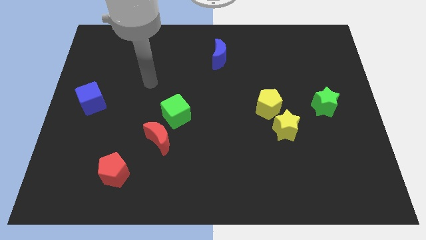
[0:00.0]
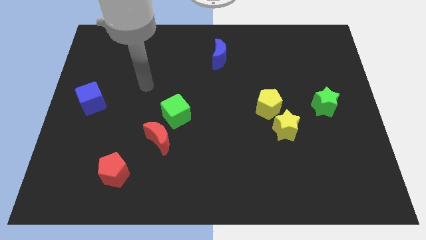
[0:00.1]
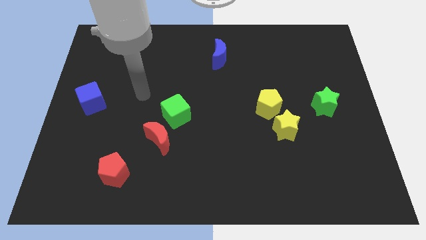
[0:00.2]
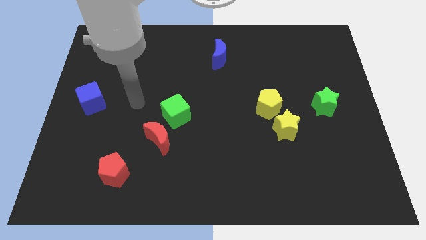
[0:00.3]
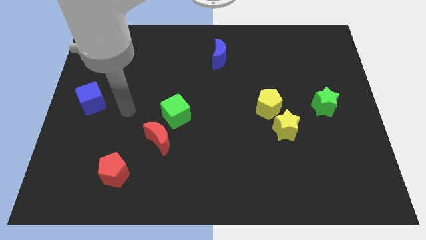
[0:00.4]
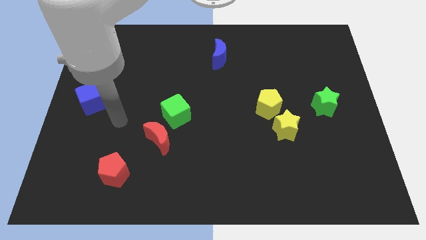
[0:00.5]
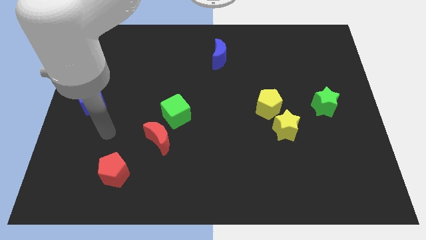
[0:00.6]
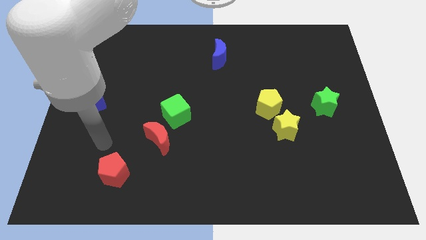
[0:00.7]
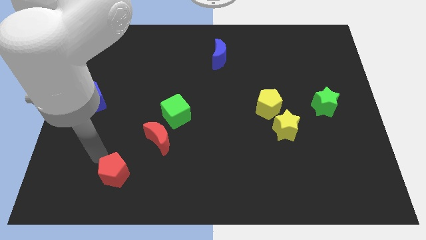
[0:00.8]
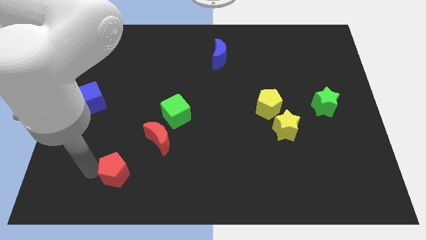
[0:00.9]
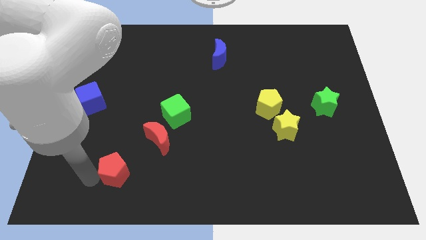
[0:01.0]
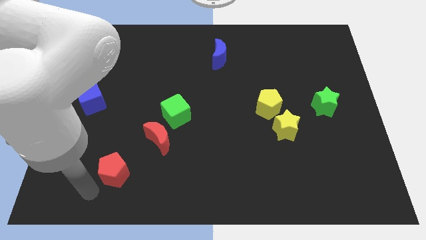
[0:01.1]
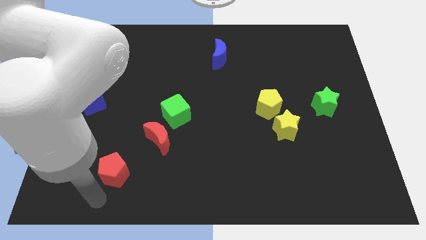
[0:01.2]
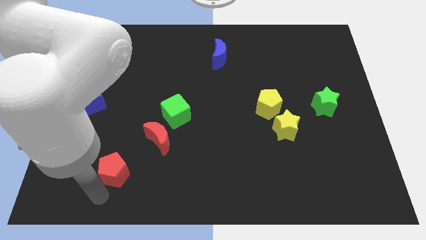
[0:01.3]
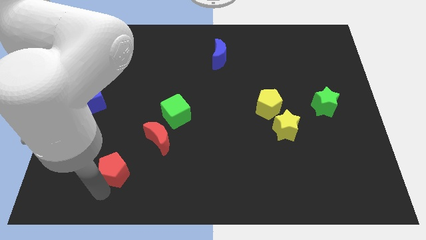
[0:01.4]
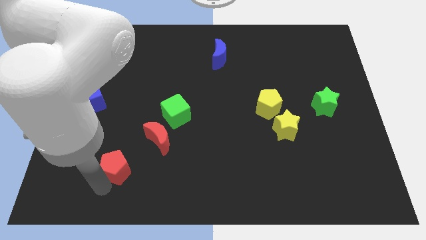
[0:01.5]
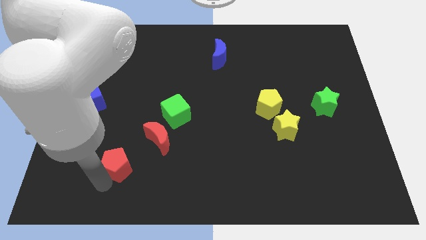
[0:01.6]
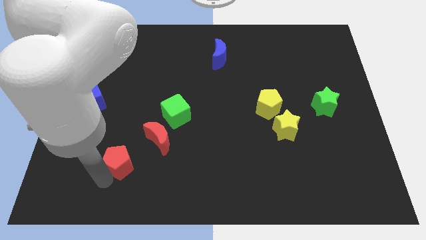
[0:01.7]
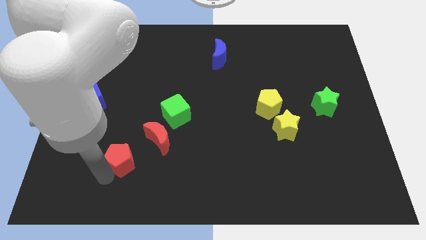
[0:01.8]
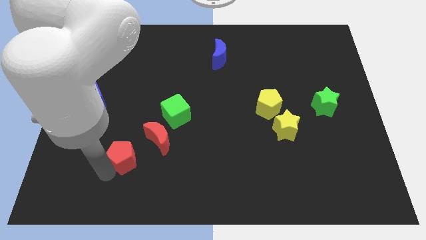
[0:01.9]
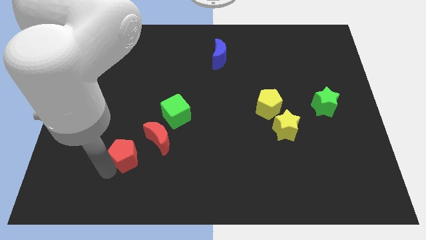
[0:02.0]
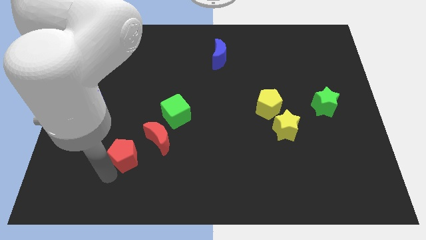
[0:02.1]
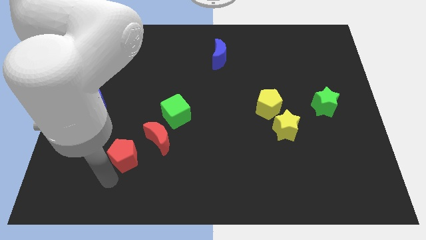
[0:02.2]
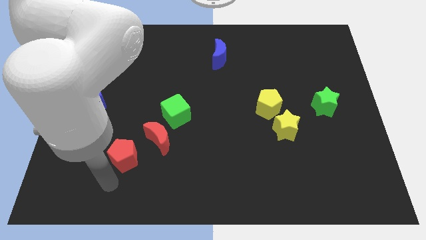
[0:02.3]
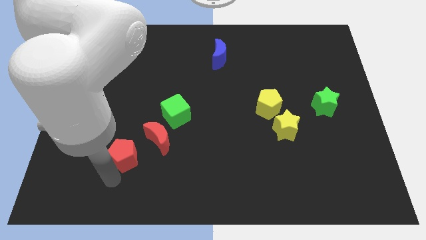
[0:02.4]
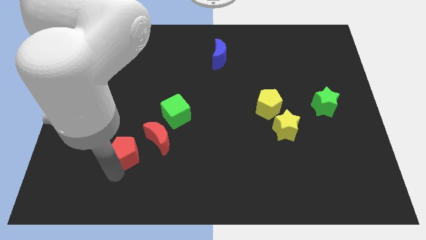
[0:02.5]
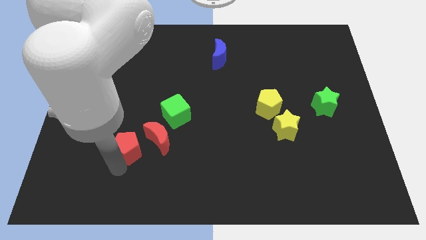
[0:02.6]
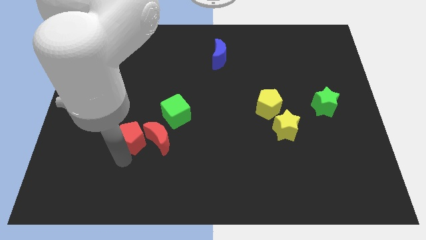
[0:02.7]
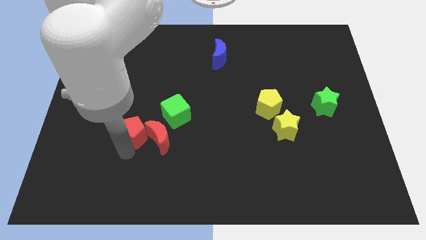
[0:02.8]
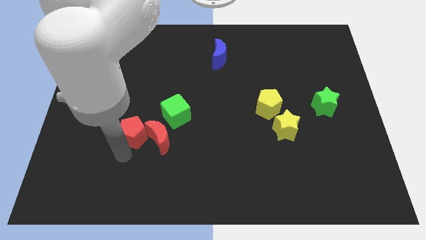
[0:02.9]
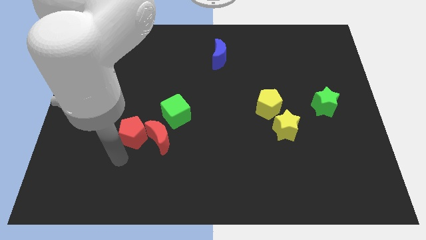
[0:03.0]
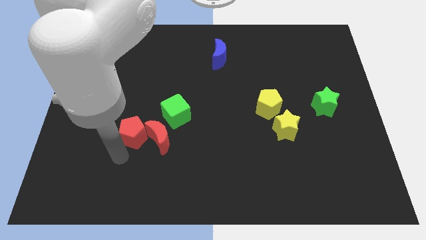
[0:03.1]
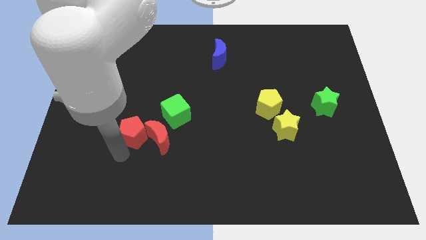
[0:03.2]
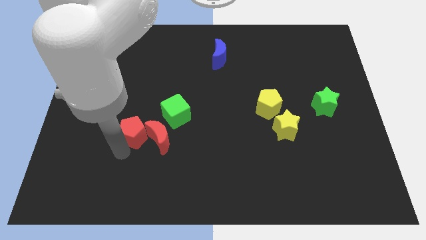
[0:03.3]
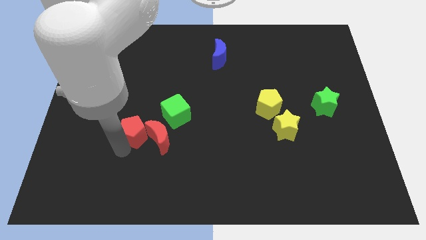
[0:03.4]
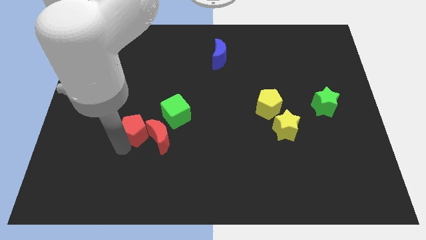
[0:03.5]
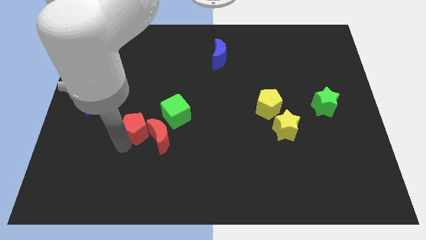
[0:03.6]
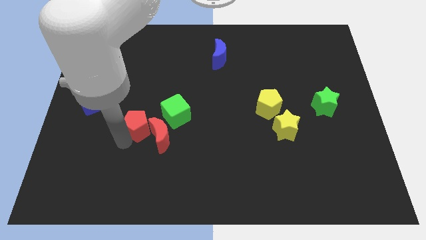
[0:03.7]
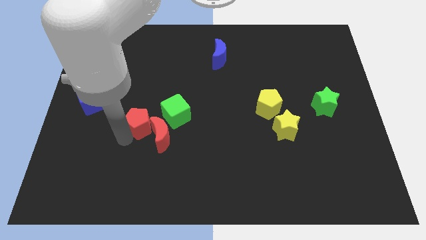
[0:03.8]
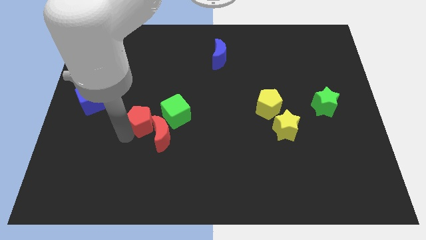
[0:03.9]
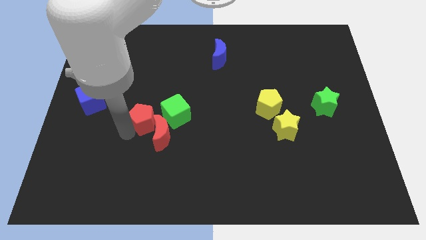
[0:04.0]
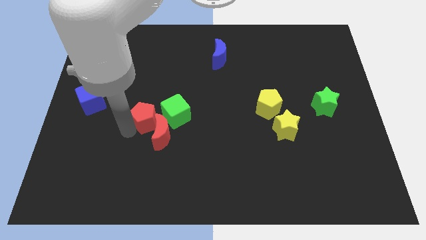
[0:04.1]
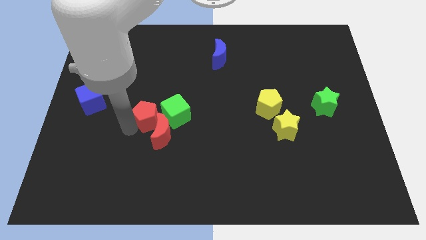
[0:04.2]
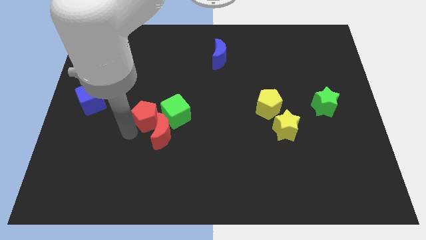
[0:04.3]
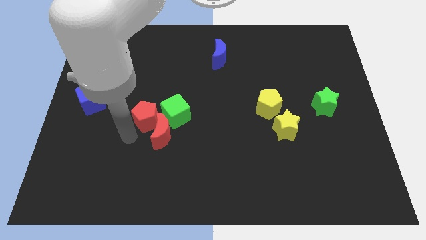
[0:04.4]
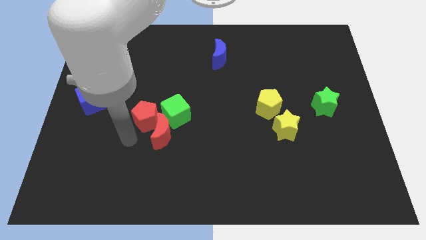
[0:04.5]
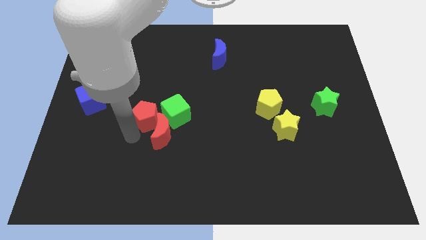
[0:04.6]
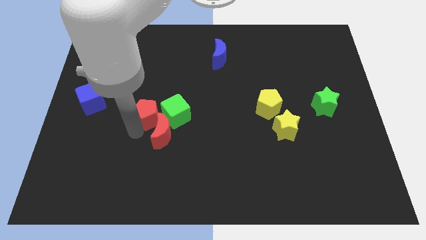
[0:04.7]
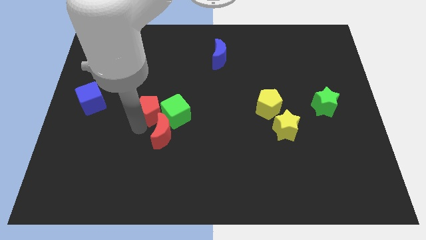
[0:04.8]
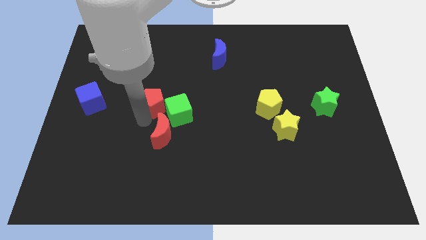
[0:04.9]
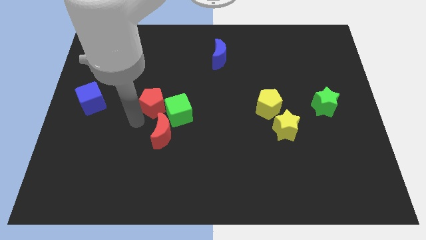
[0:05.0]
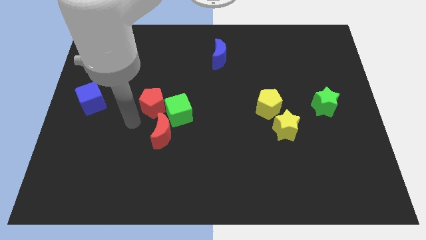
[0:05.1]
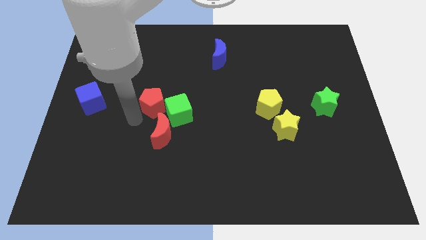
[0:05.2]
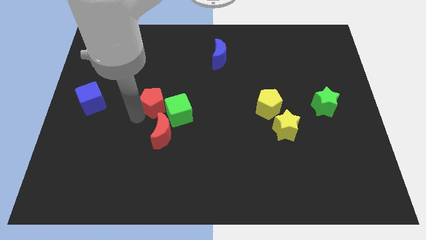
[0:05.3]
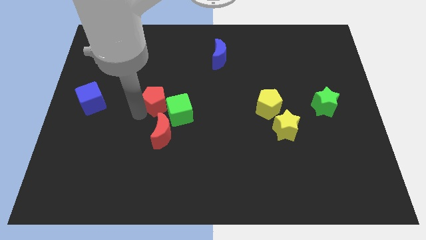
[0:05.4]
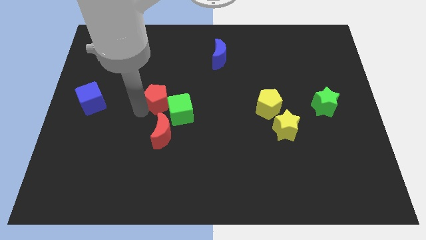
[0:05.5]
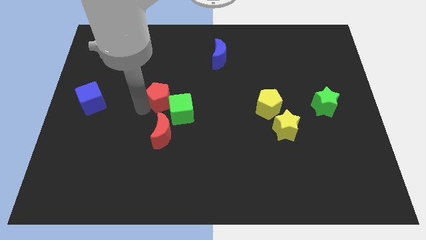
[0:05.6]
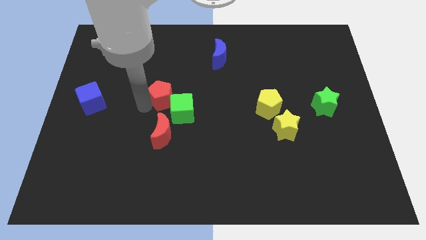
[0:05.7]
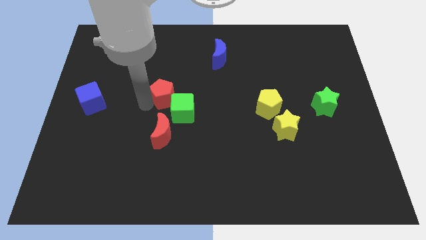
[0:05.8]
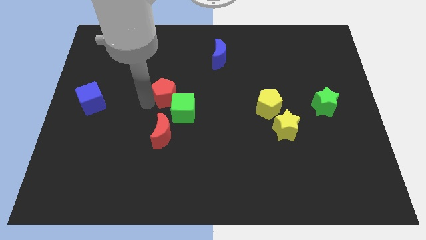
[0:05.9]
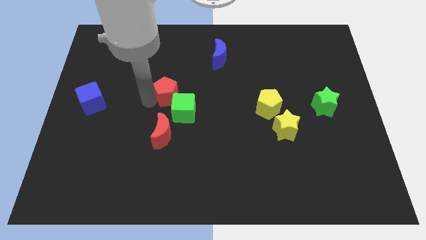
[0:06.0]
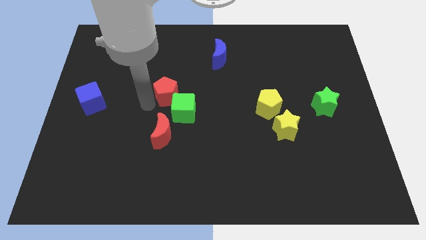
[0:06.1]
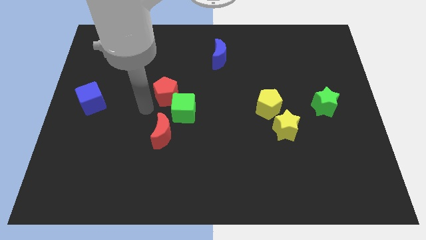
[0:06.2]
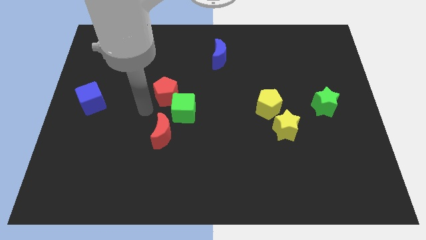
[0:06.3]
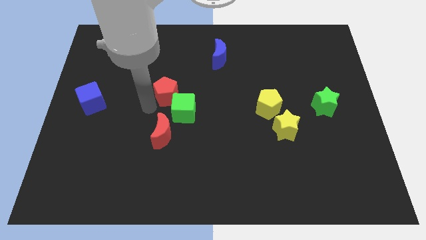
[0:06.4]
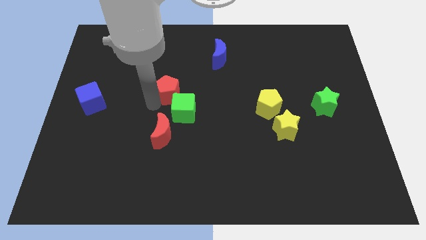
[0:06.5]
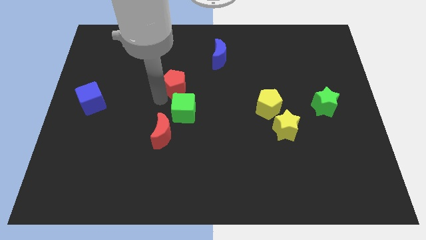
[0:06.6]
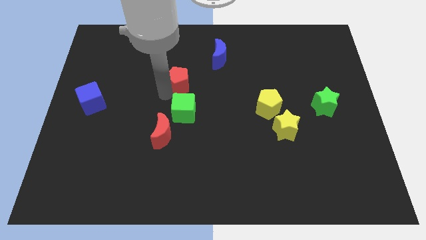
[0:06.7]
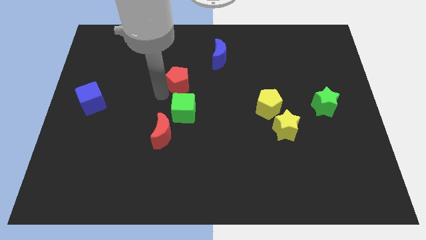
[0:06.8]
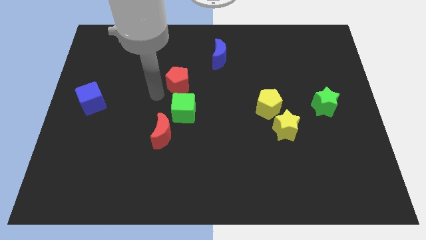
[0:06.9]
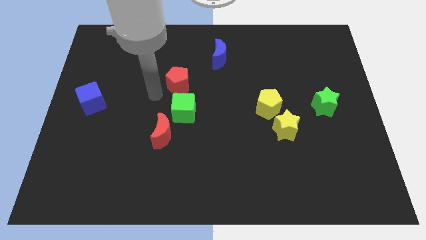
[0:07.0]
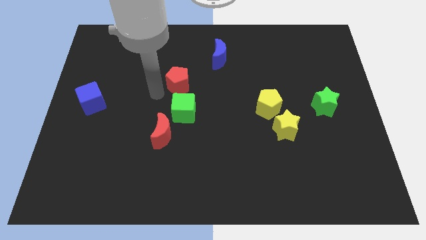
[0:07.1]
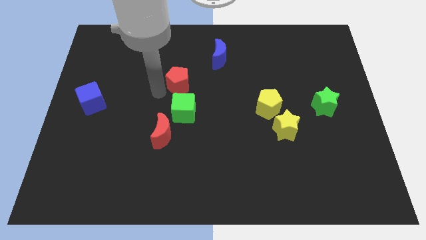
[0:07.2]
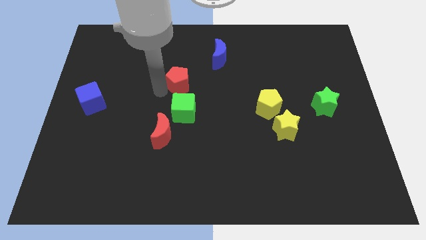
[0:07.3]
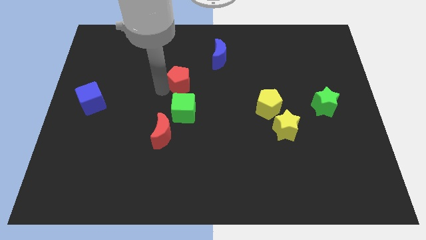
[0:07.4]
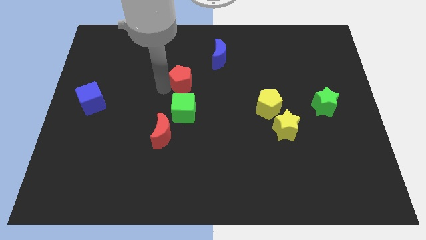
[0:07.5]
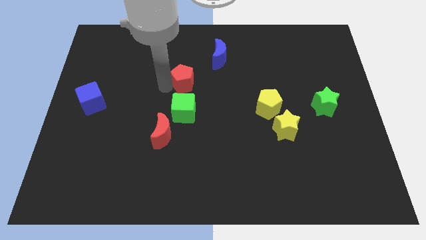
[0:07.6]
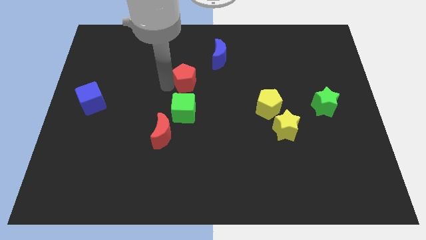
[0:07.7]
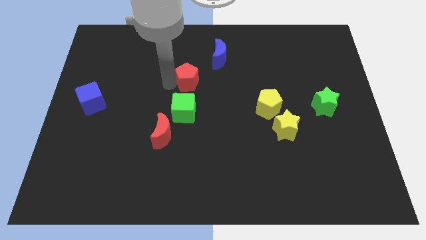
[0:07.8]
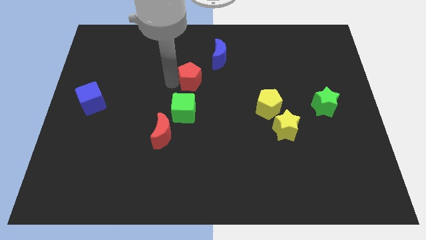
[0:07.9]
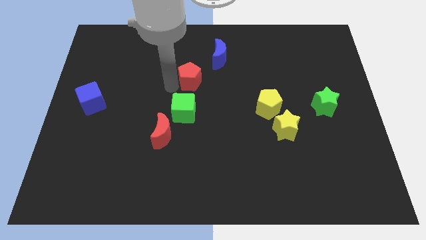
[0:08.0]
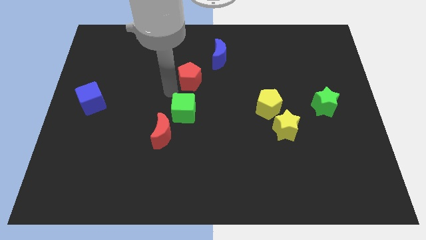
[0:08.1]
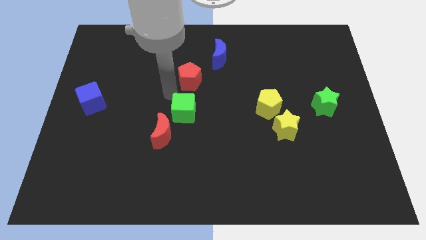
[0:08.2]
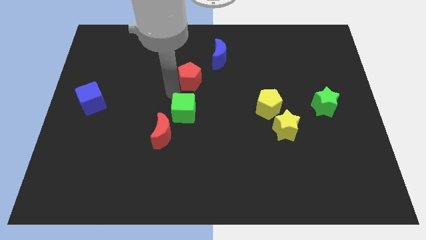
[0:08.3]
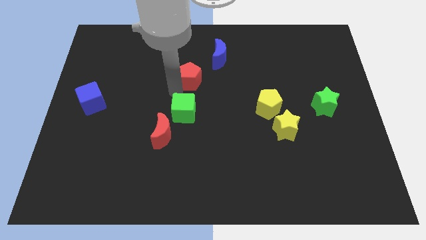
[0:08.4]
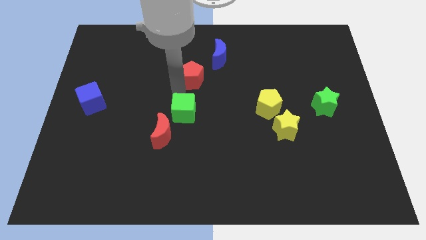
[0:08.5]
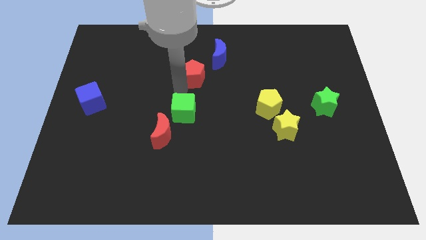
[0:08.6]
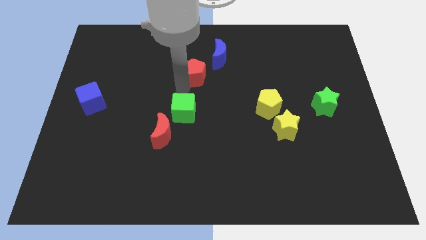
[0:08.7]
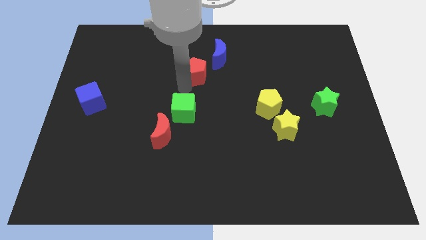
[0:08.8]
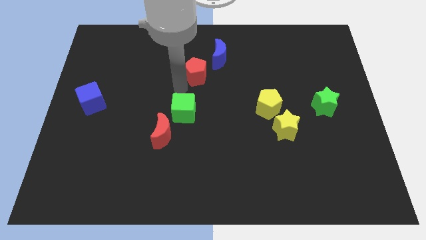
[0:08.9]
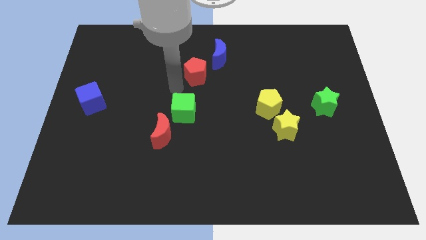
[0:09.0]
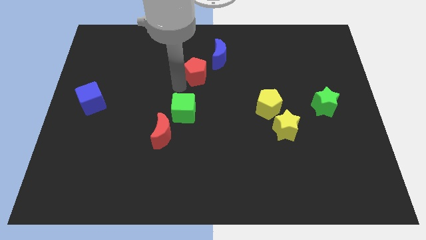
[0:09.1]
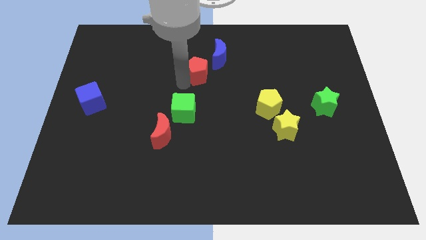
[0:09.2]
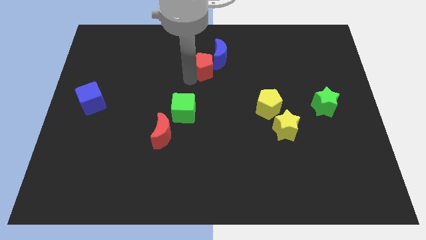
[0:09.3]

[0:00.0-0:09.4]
put the red pentagon to the blue moon
